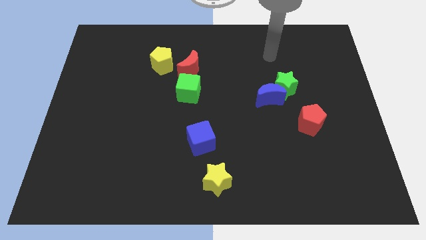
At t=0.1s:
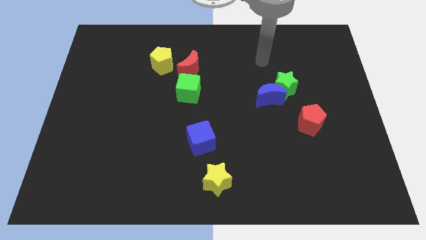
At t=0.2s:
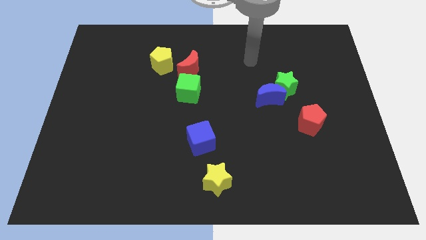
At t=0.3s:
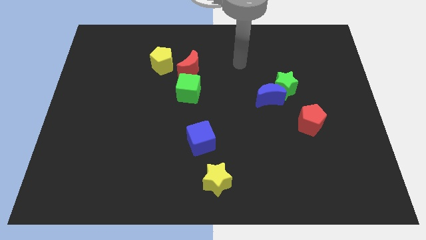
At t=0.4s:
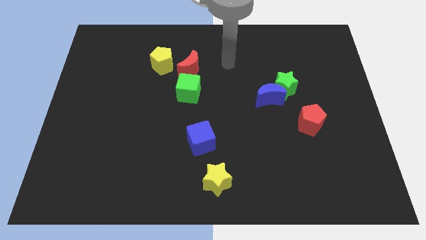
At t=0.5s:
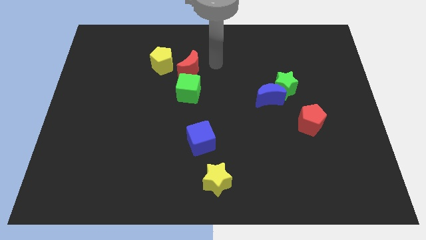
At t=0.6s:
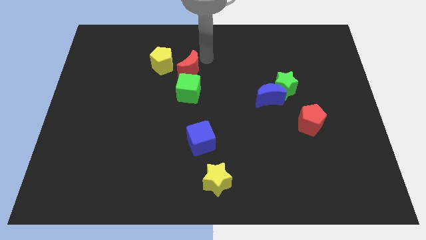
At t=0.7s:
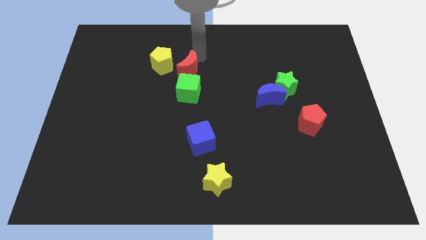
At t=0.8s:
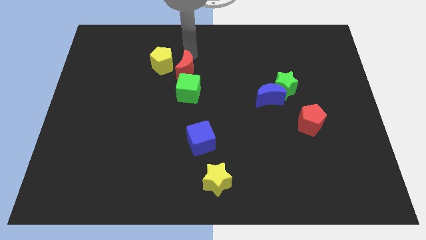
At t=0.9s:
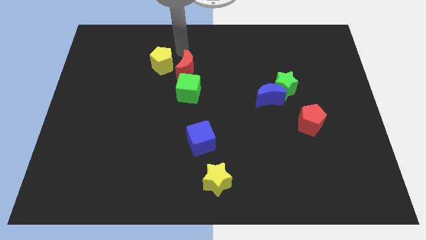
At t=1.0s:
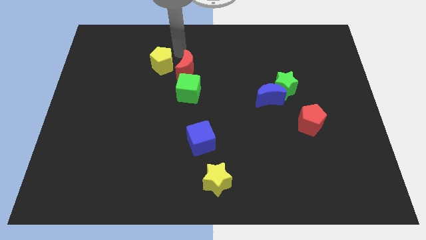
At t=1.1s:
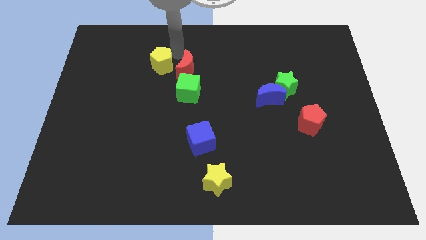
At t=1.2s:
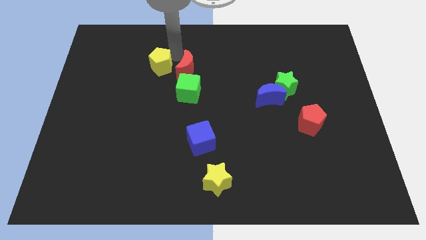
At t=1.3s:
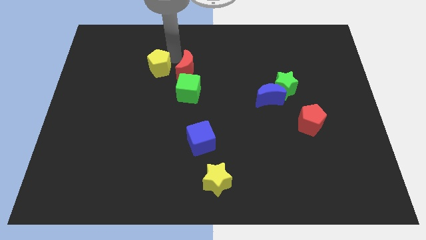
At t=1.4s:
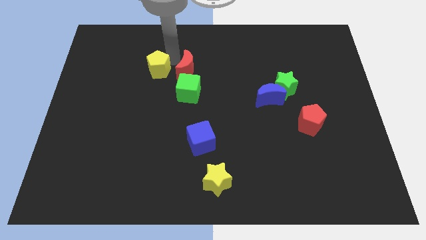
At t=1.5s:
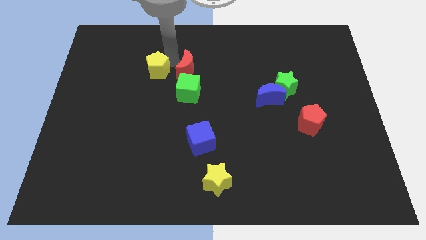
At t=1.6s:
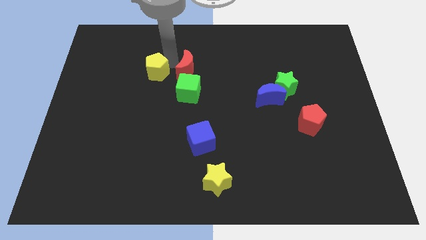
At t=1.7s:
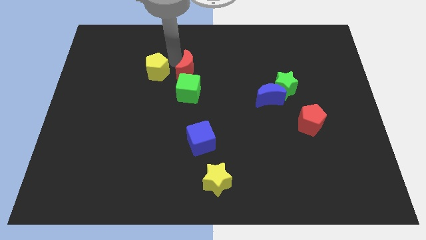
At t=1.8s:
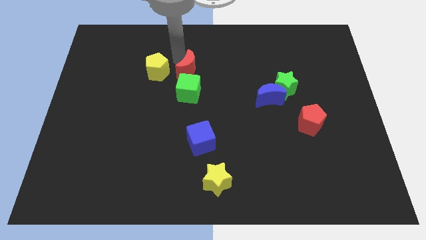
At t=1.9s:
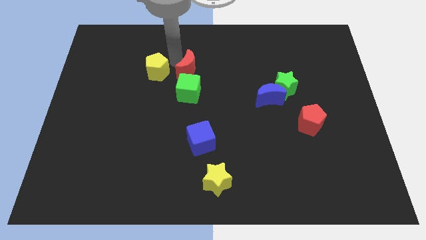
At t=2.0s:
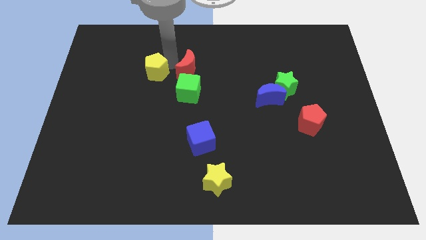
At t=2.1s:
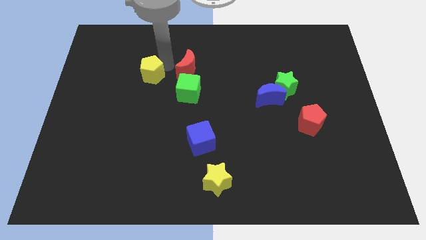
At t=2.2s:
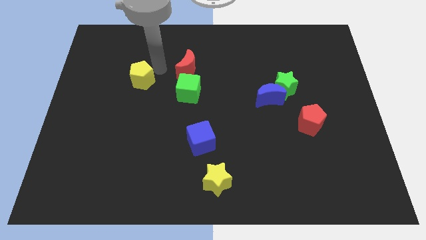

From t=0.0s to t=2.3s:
slightly slide the yellow pentagon down and to the left diagonally

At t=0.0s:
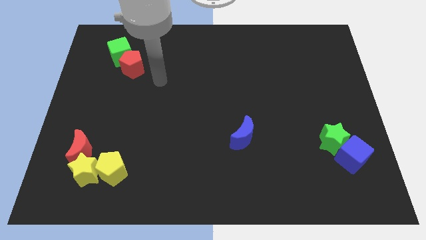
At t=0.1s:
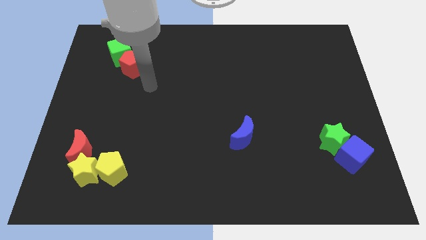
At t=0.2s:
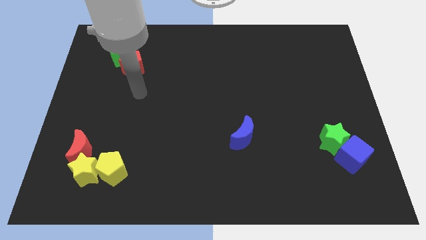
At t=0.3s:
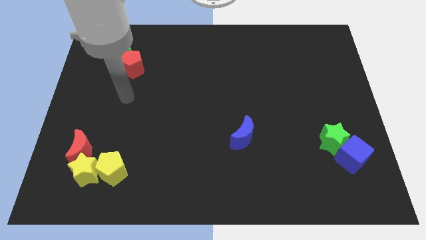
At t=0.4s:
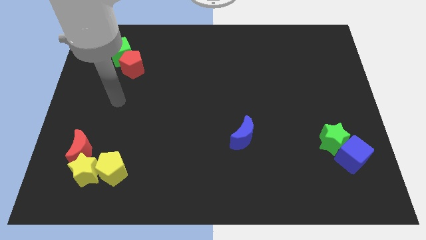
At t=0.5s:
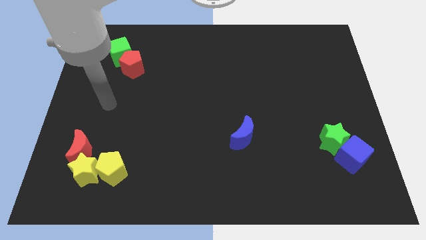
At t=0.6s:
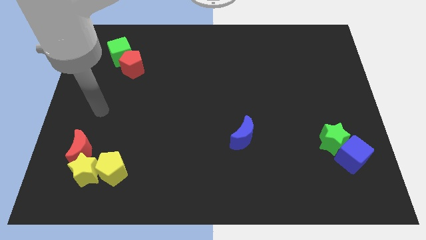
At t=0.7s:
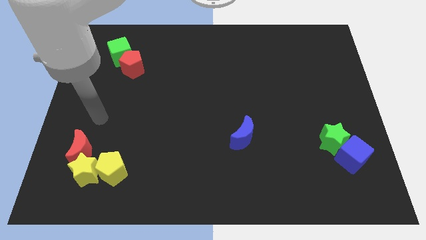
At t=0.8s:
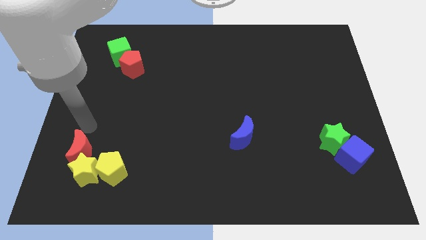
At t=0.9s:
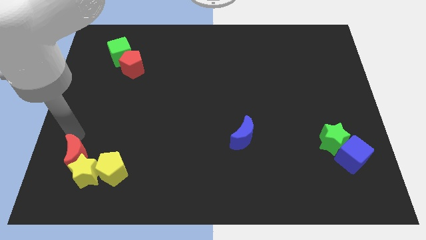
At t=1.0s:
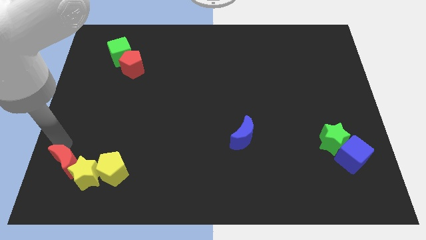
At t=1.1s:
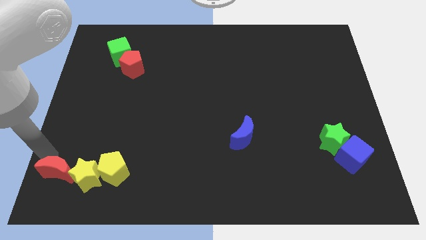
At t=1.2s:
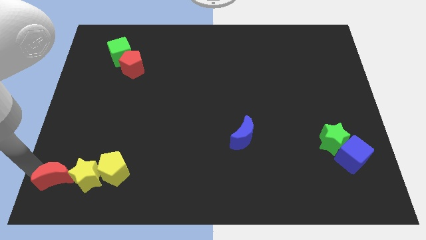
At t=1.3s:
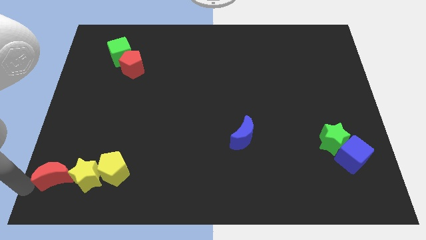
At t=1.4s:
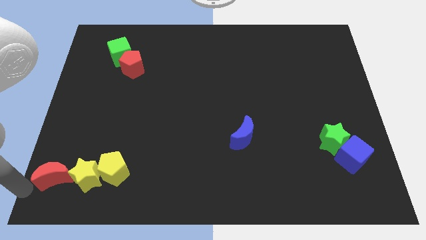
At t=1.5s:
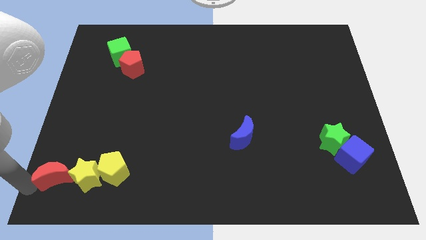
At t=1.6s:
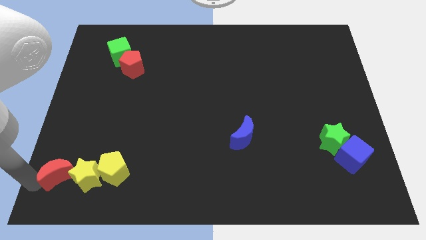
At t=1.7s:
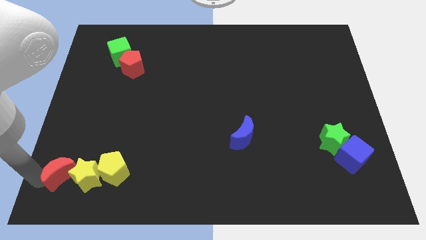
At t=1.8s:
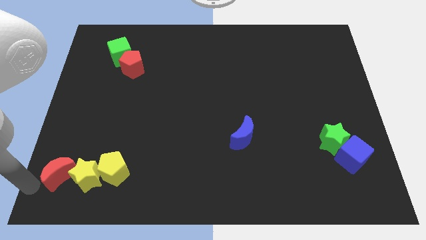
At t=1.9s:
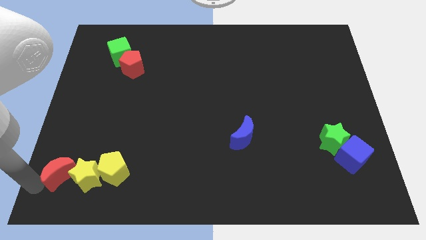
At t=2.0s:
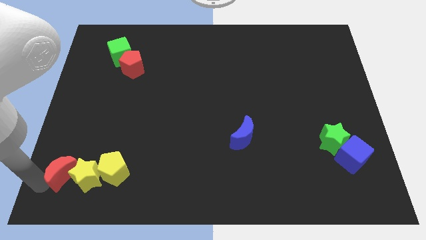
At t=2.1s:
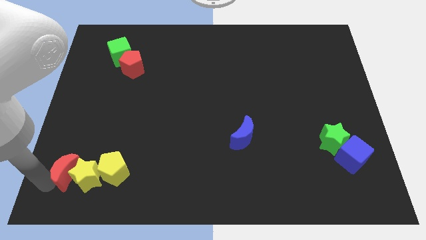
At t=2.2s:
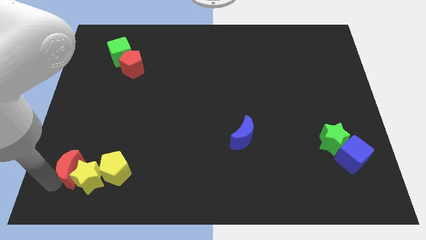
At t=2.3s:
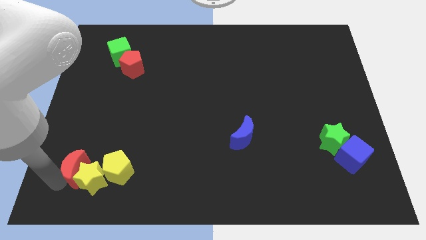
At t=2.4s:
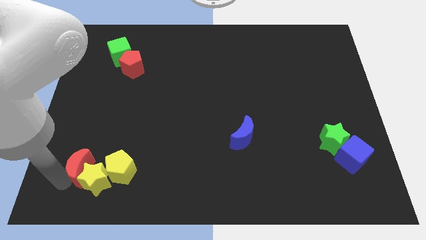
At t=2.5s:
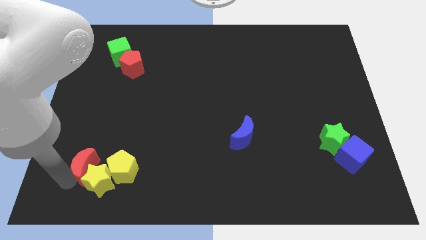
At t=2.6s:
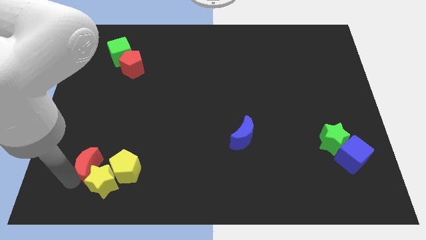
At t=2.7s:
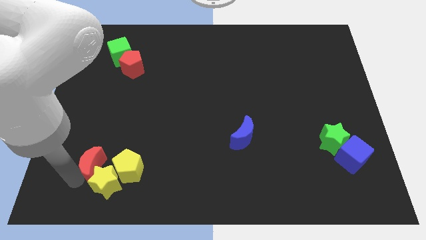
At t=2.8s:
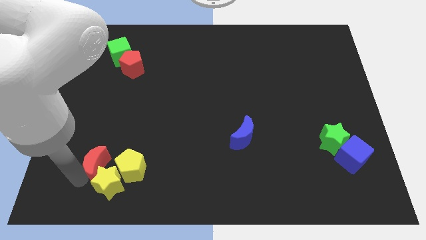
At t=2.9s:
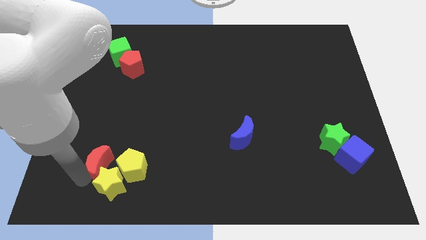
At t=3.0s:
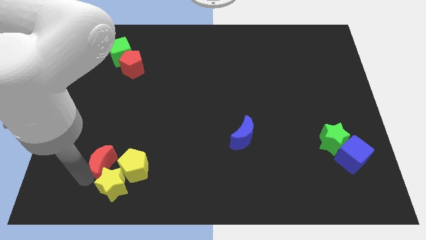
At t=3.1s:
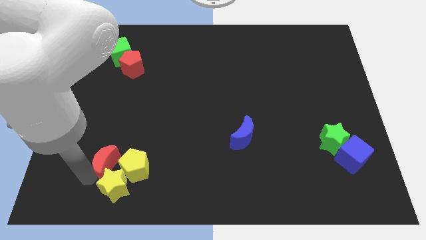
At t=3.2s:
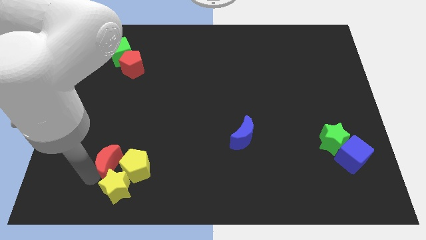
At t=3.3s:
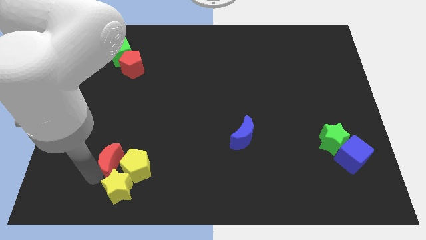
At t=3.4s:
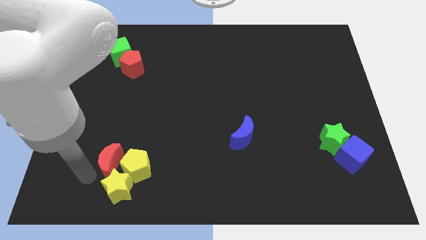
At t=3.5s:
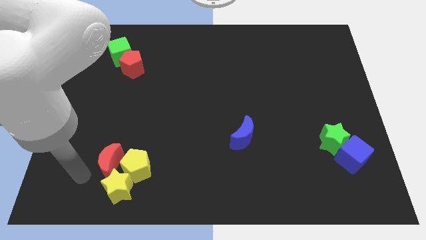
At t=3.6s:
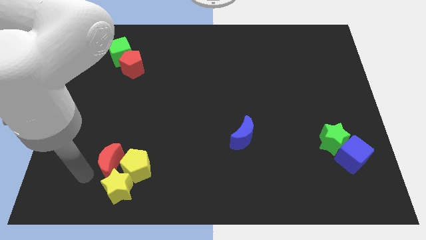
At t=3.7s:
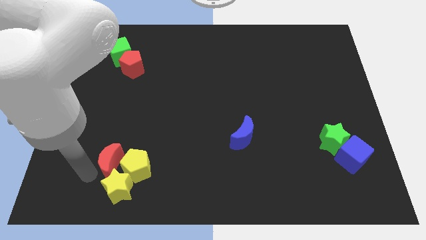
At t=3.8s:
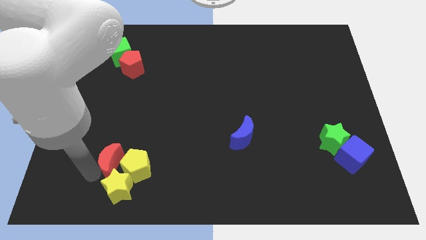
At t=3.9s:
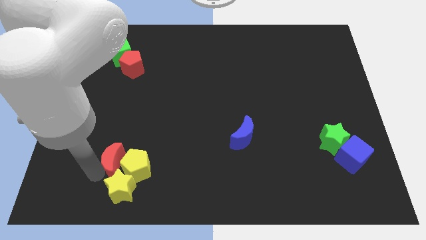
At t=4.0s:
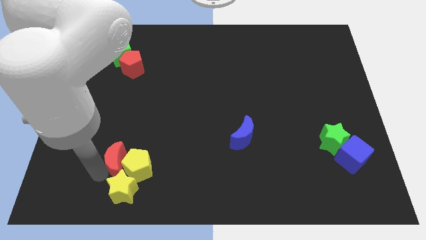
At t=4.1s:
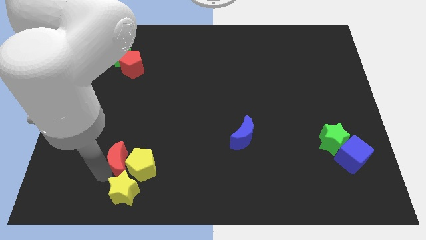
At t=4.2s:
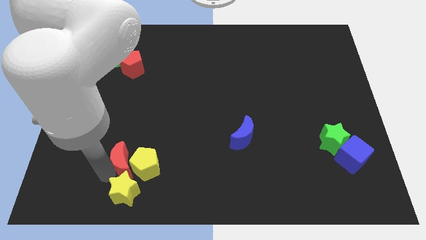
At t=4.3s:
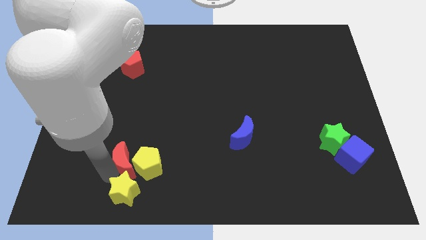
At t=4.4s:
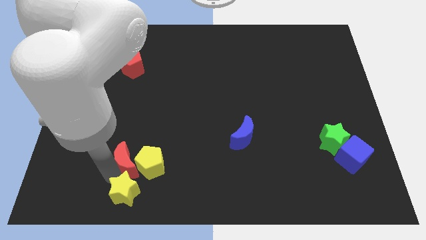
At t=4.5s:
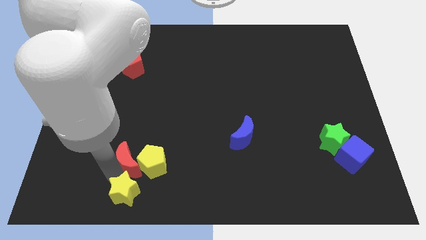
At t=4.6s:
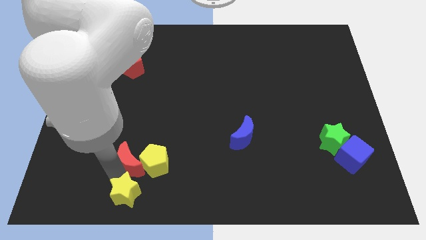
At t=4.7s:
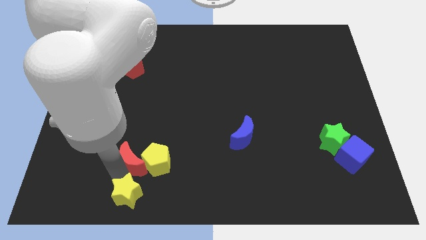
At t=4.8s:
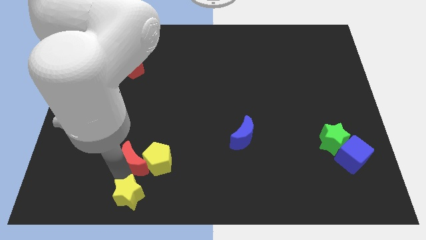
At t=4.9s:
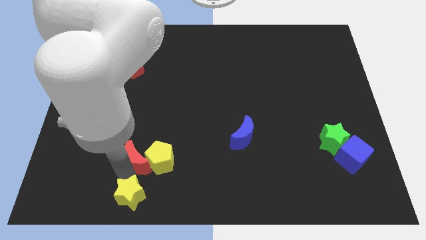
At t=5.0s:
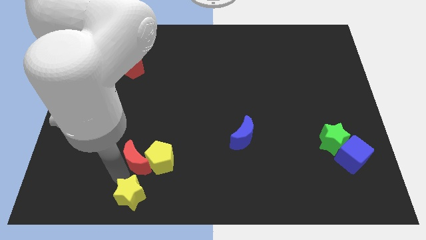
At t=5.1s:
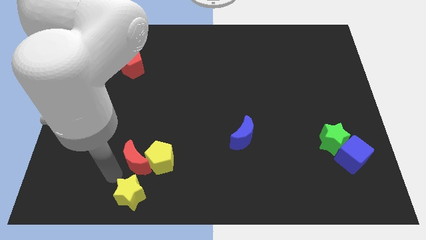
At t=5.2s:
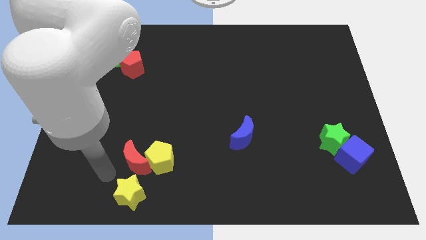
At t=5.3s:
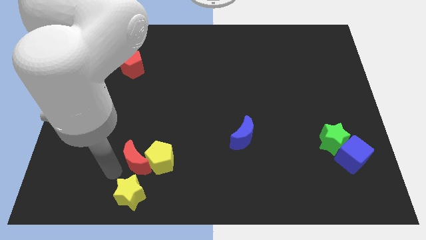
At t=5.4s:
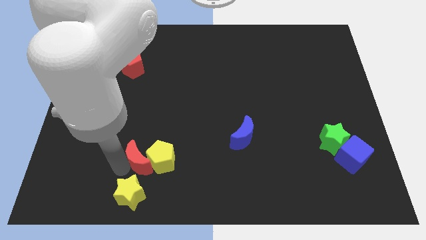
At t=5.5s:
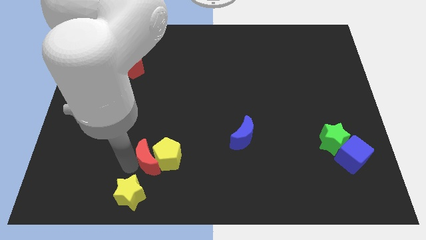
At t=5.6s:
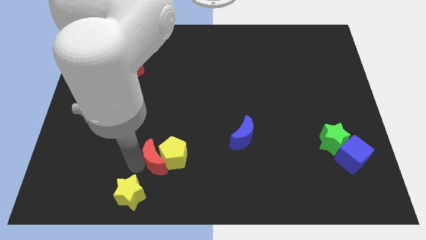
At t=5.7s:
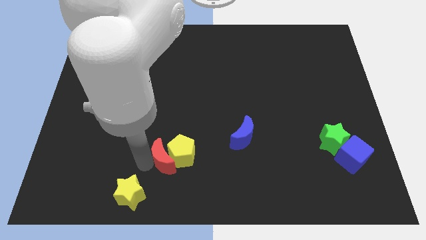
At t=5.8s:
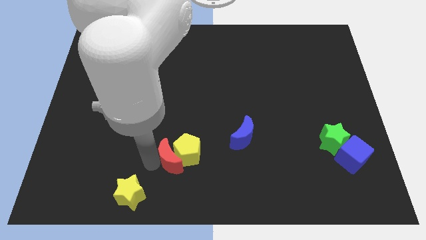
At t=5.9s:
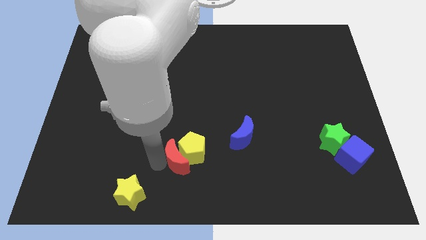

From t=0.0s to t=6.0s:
slide the red moon to the right
